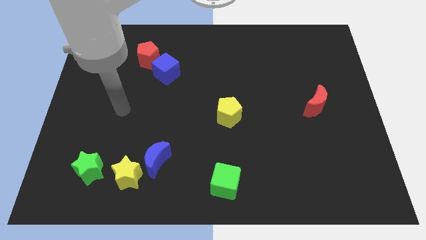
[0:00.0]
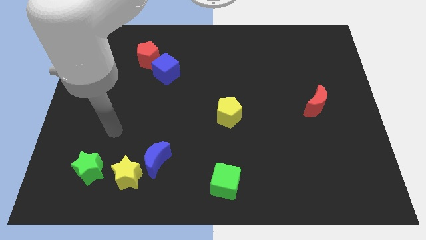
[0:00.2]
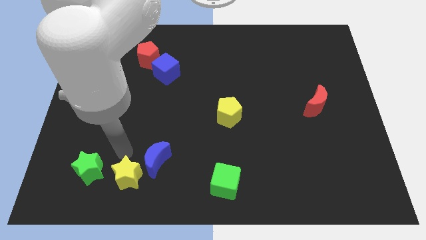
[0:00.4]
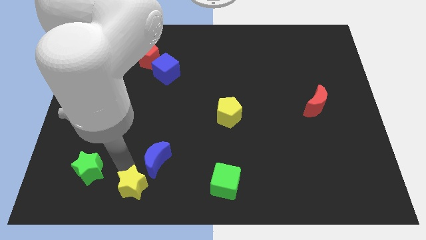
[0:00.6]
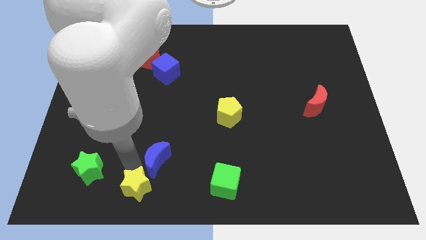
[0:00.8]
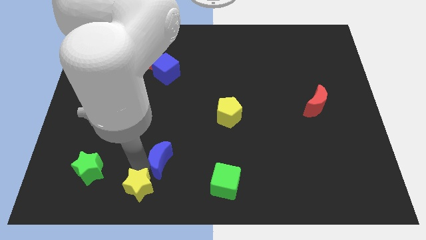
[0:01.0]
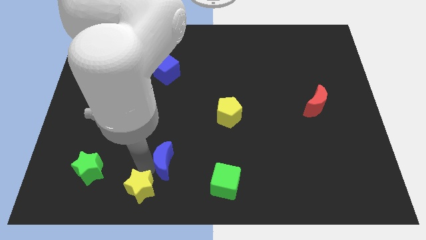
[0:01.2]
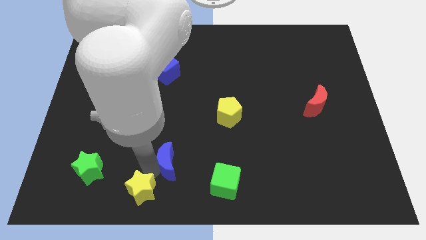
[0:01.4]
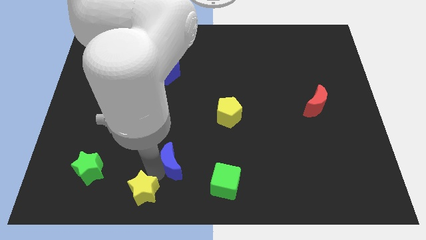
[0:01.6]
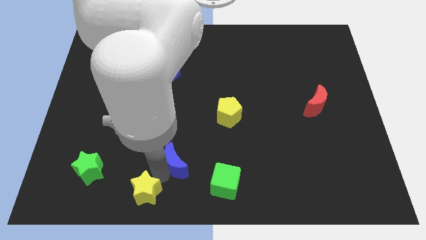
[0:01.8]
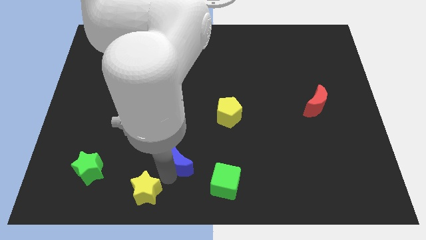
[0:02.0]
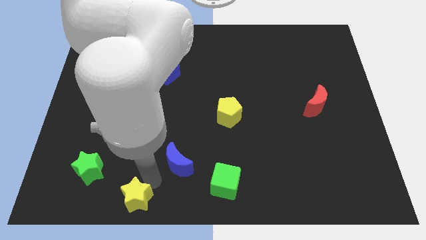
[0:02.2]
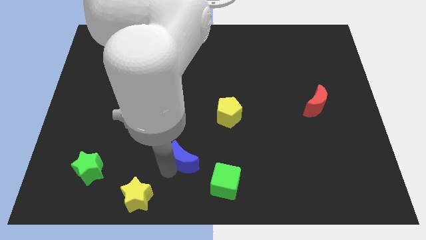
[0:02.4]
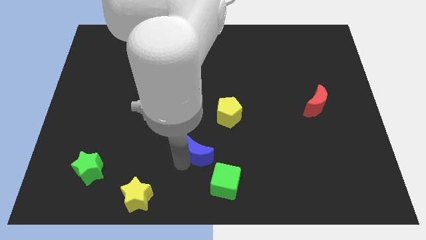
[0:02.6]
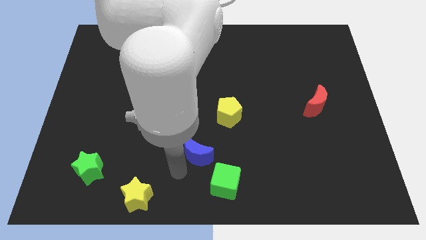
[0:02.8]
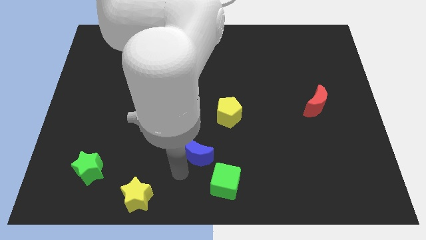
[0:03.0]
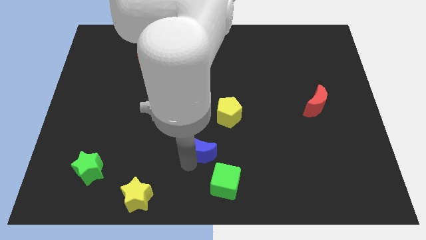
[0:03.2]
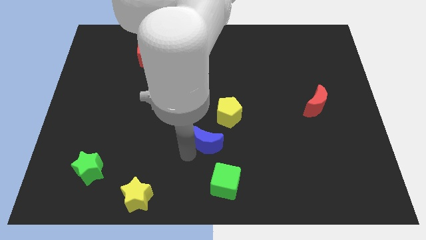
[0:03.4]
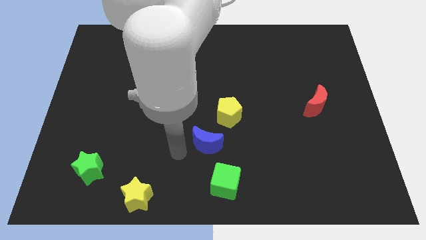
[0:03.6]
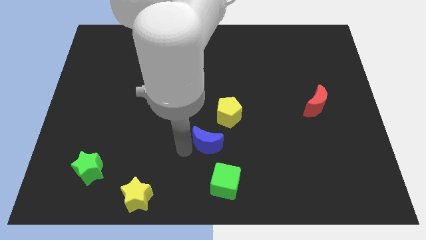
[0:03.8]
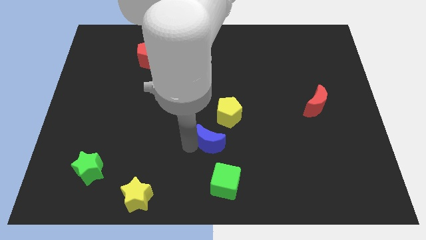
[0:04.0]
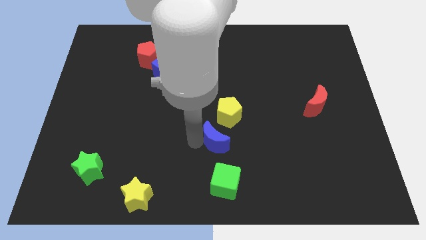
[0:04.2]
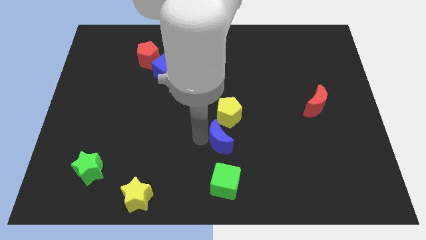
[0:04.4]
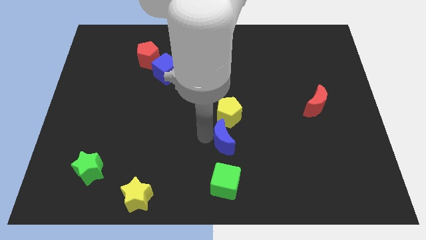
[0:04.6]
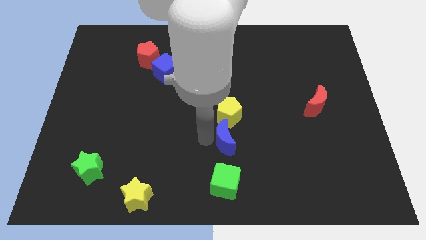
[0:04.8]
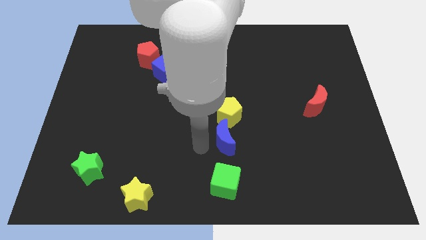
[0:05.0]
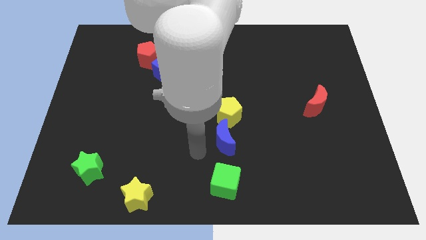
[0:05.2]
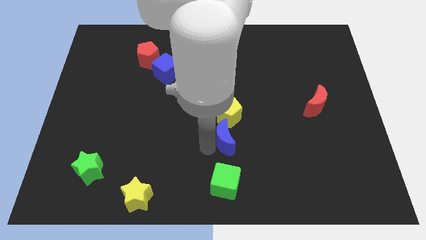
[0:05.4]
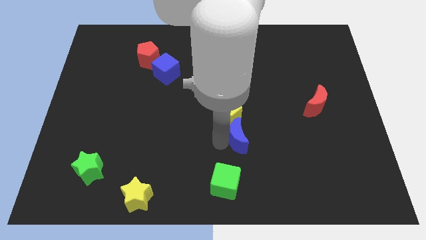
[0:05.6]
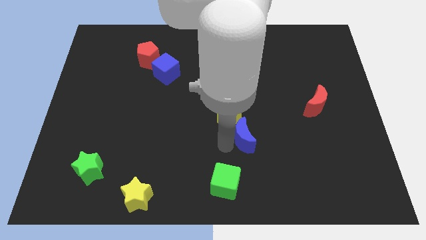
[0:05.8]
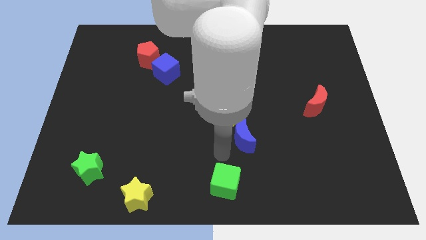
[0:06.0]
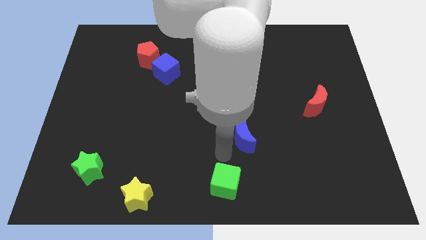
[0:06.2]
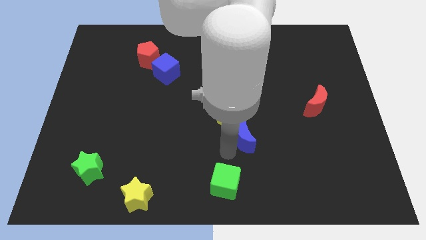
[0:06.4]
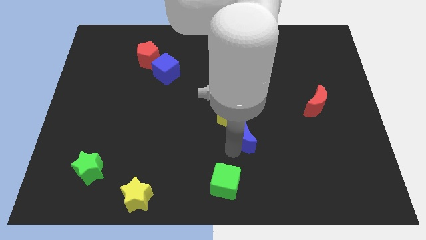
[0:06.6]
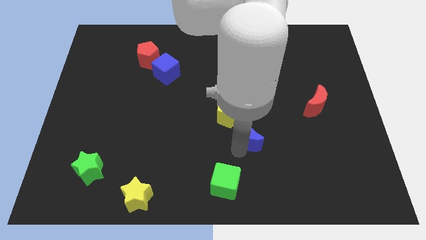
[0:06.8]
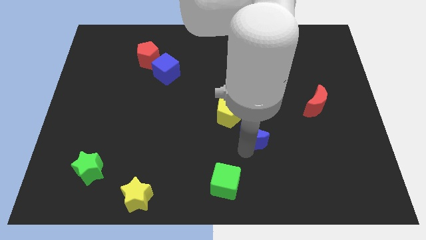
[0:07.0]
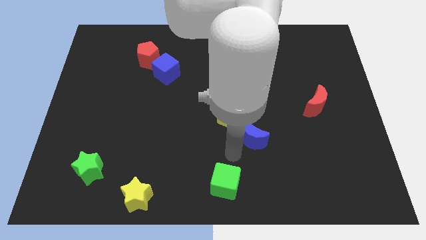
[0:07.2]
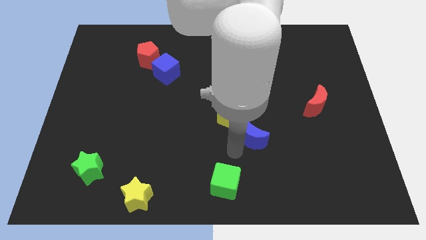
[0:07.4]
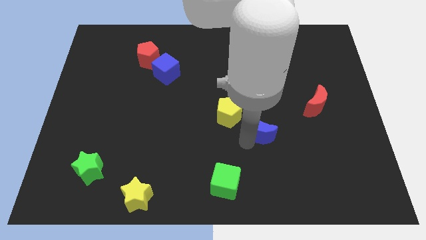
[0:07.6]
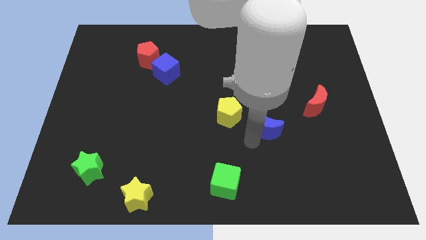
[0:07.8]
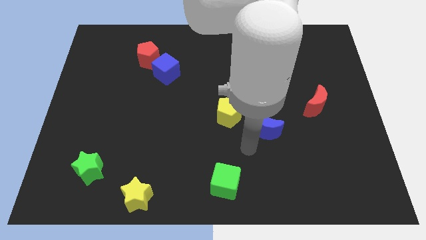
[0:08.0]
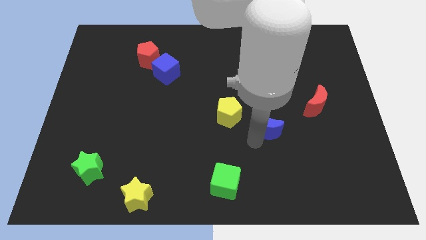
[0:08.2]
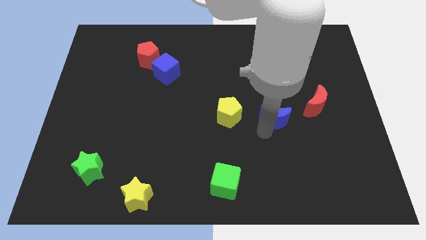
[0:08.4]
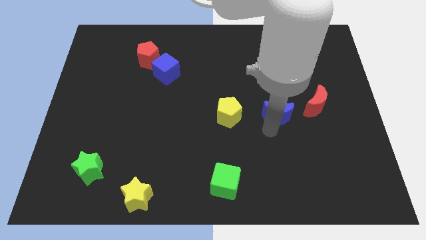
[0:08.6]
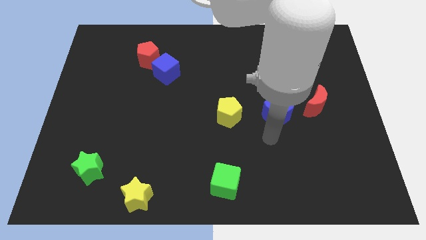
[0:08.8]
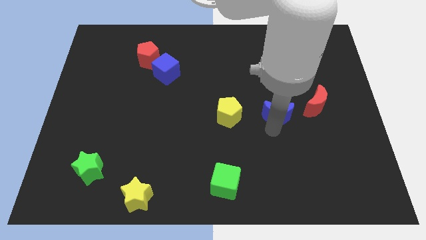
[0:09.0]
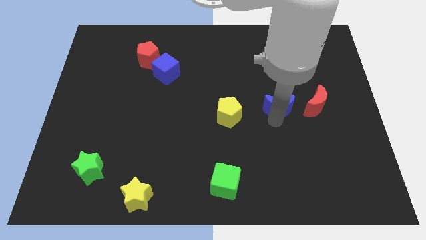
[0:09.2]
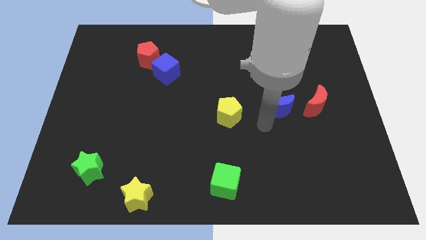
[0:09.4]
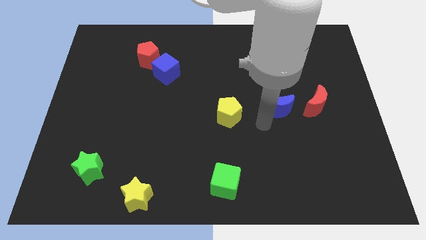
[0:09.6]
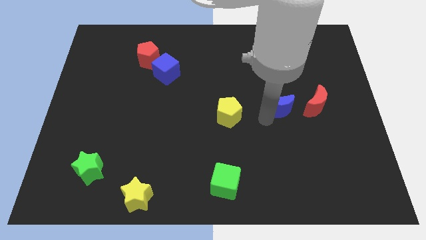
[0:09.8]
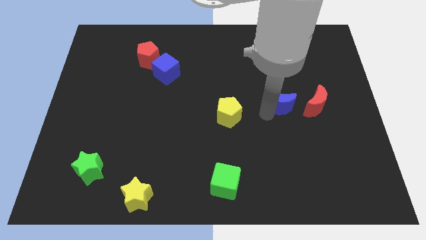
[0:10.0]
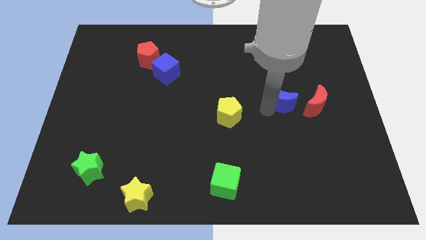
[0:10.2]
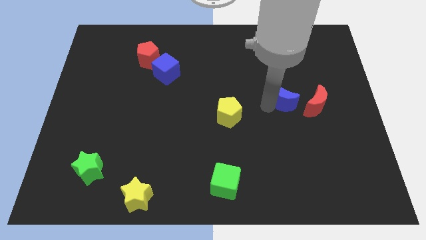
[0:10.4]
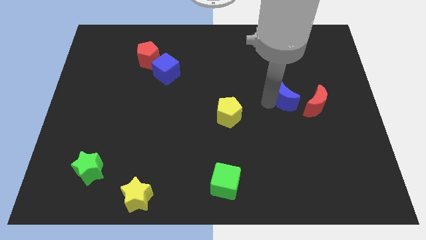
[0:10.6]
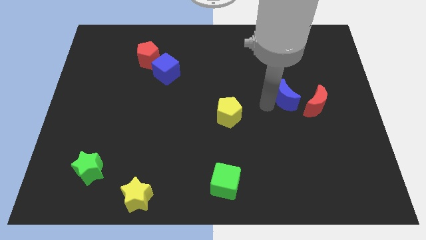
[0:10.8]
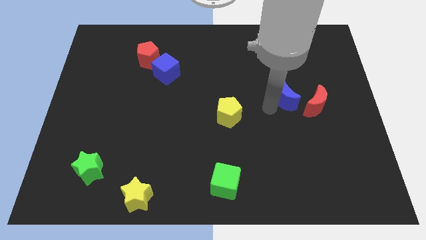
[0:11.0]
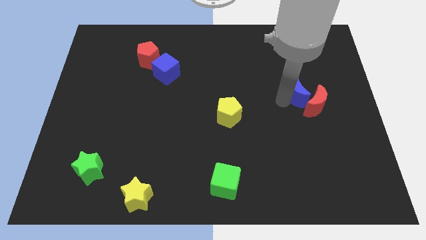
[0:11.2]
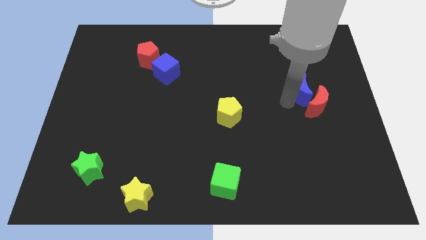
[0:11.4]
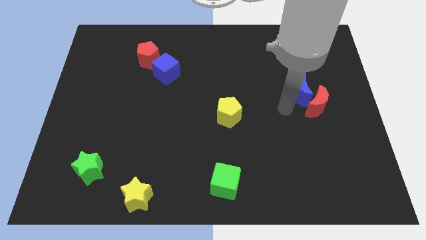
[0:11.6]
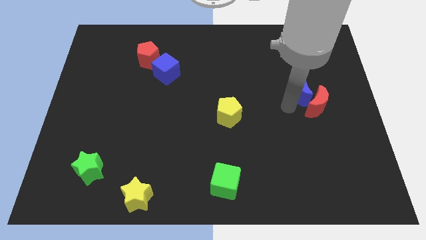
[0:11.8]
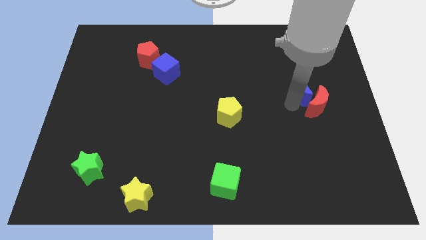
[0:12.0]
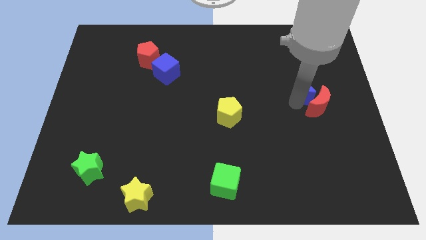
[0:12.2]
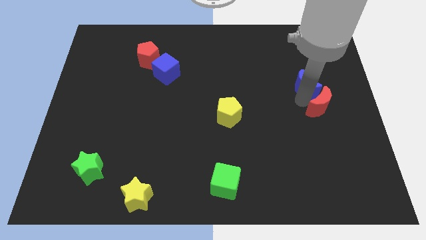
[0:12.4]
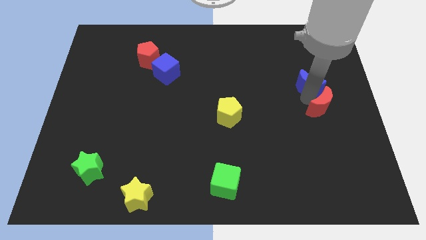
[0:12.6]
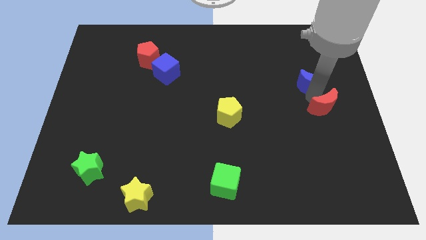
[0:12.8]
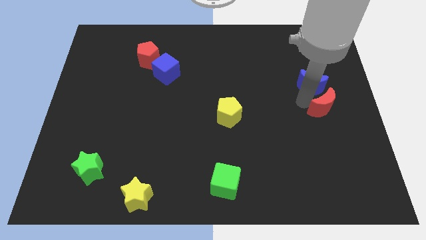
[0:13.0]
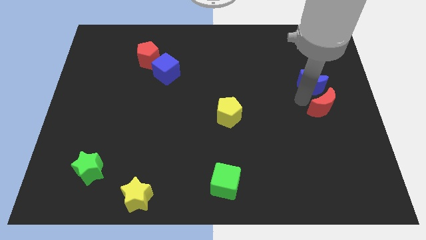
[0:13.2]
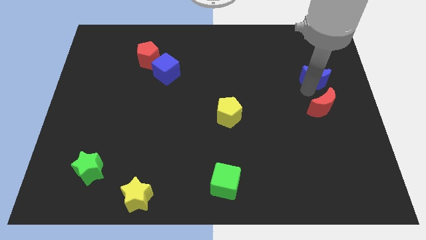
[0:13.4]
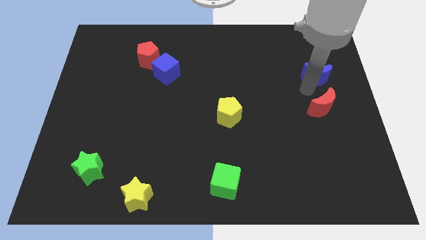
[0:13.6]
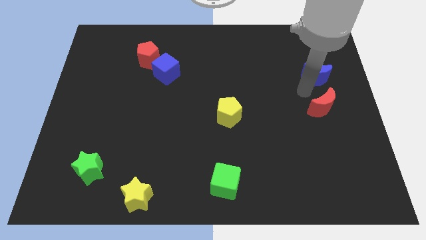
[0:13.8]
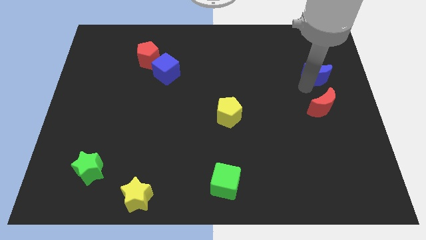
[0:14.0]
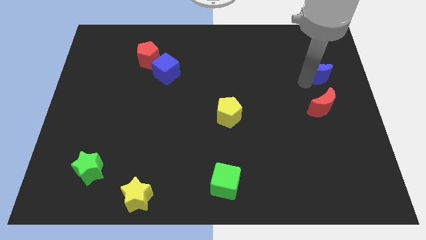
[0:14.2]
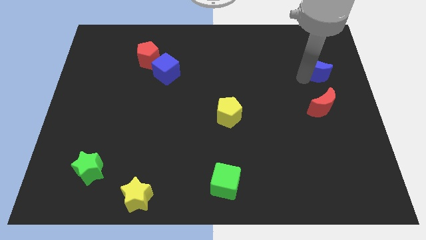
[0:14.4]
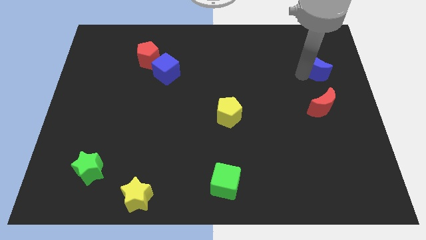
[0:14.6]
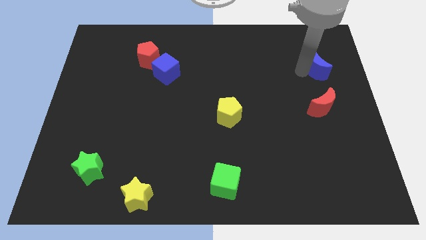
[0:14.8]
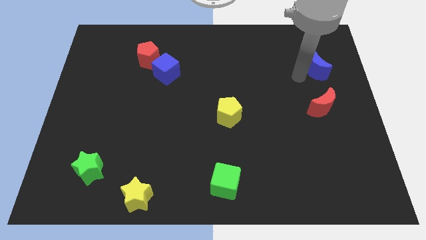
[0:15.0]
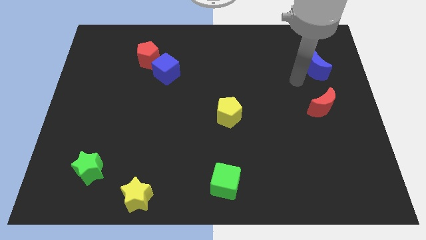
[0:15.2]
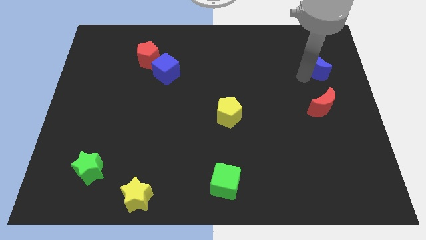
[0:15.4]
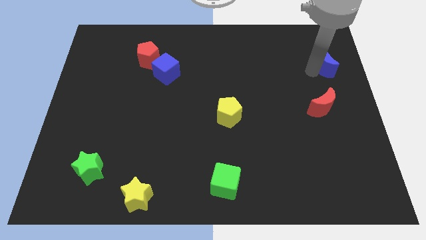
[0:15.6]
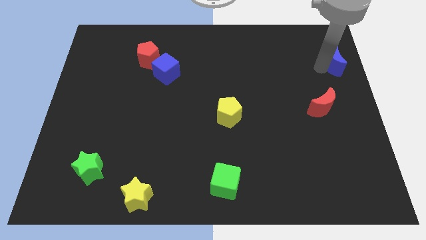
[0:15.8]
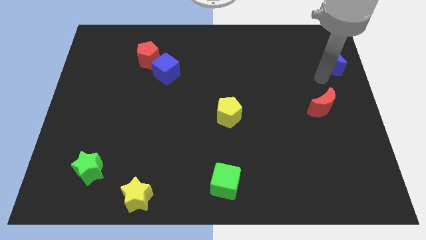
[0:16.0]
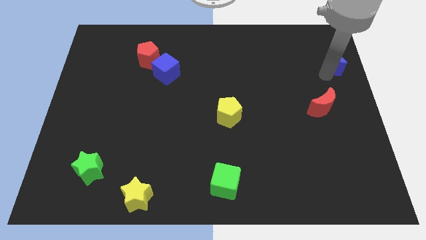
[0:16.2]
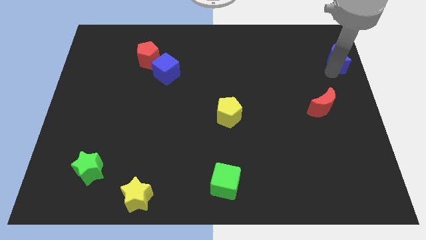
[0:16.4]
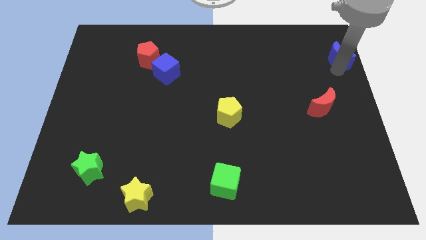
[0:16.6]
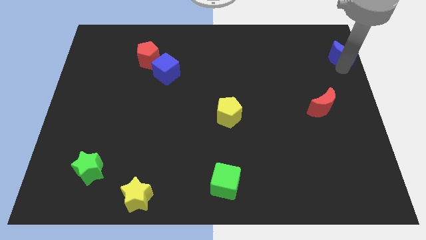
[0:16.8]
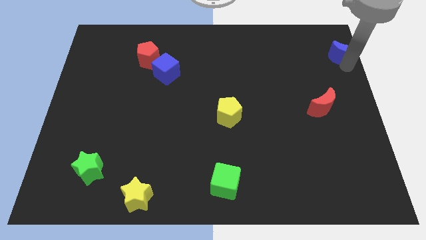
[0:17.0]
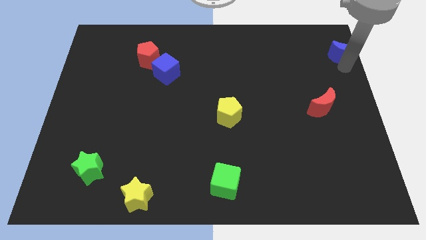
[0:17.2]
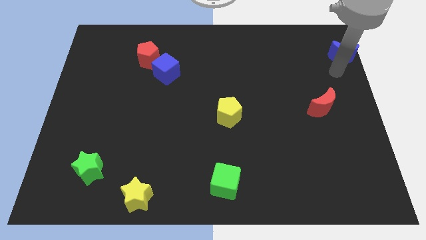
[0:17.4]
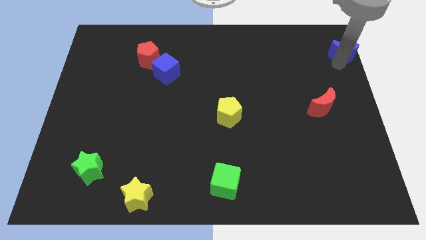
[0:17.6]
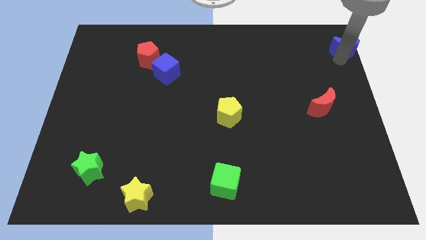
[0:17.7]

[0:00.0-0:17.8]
push the blue moon to the top right corner
